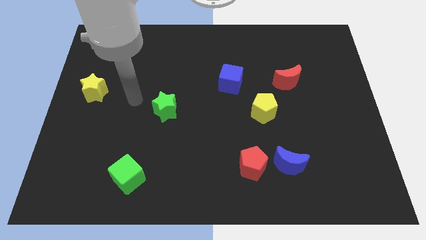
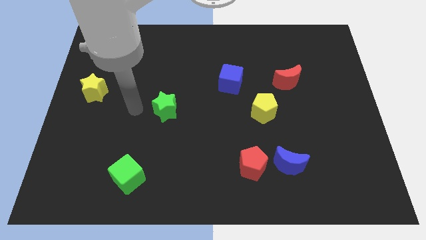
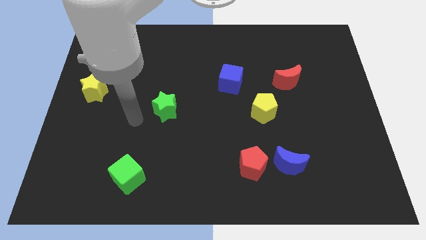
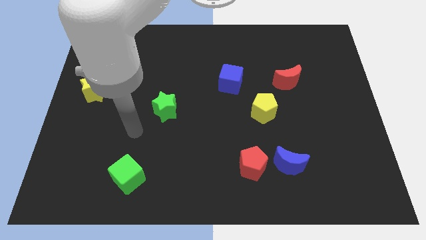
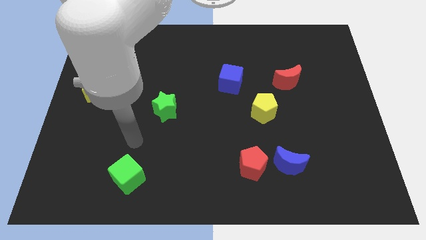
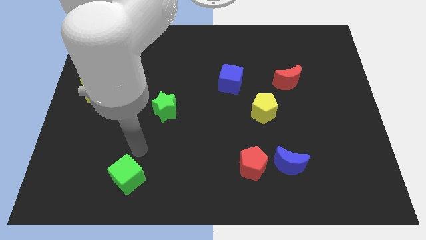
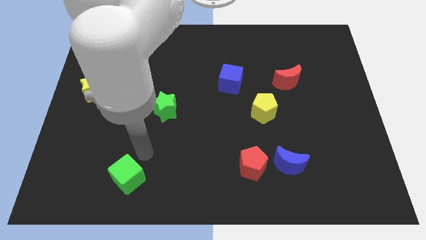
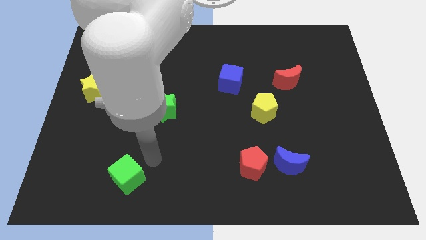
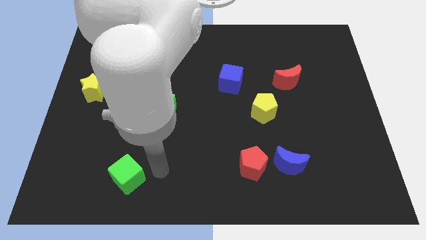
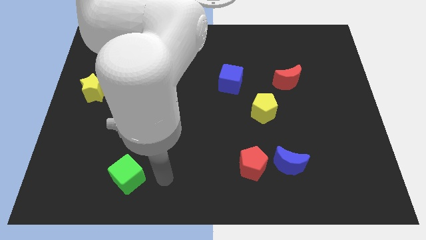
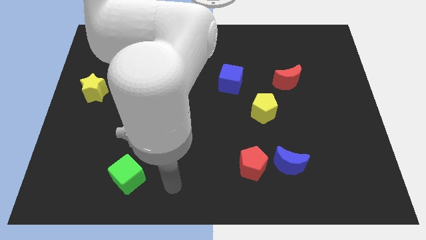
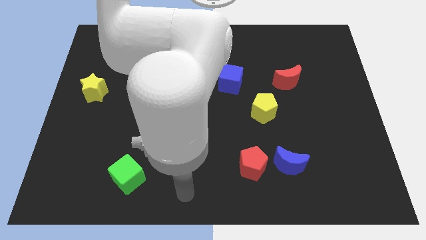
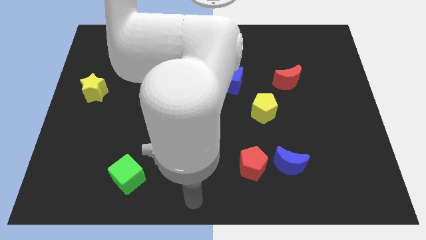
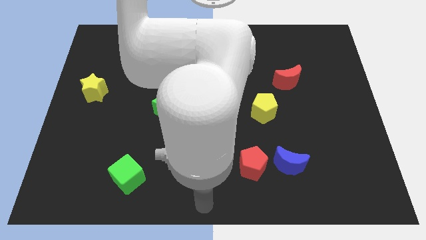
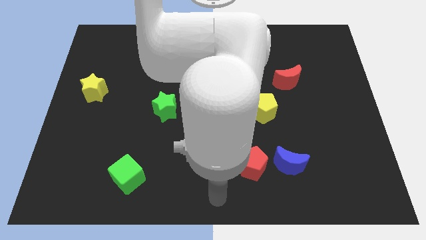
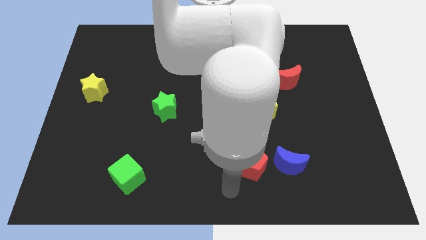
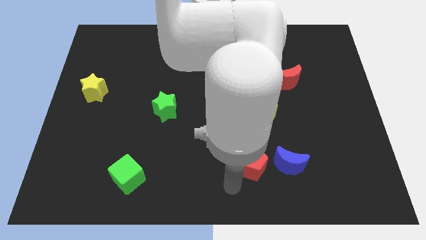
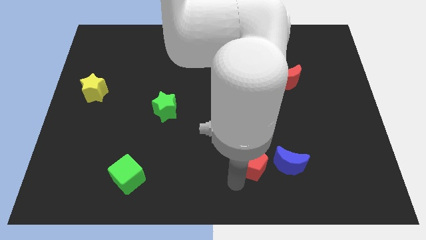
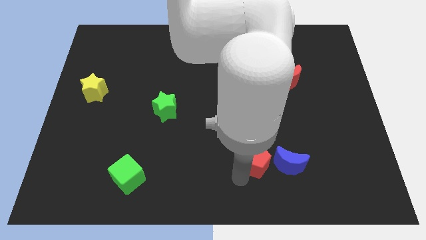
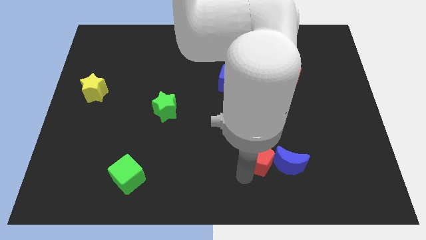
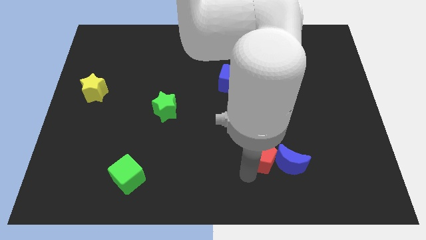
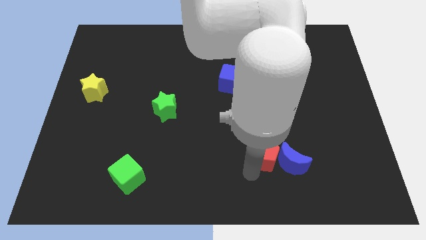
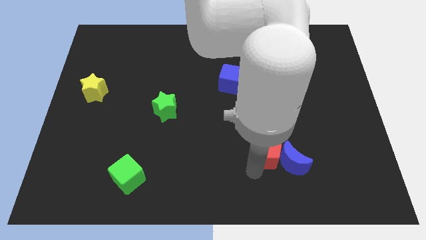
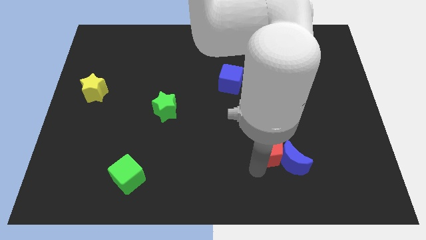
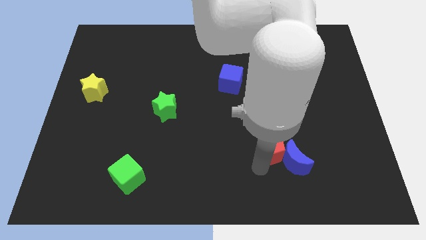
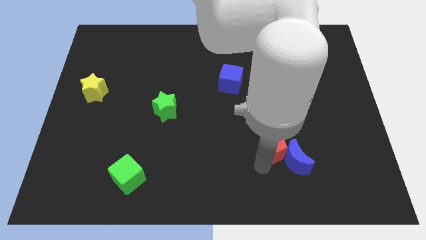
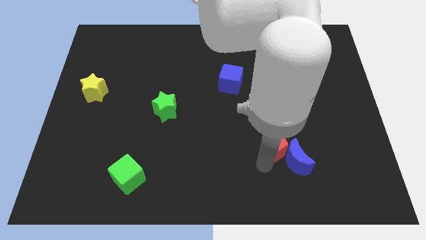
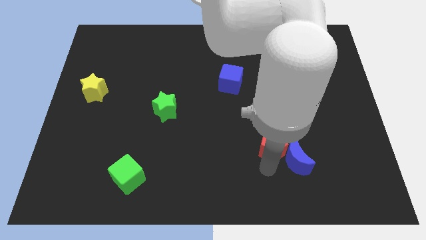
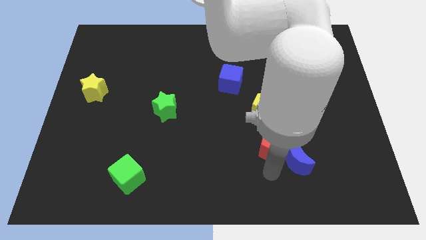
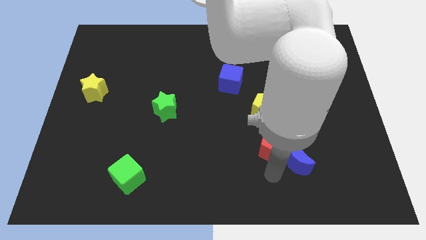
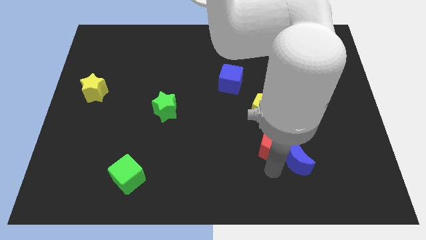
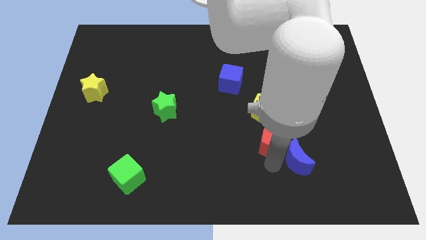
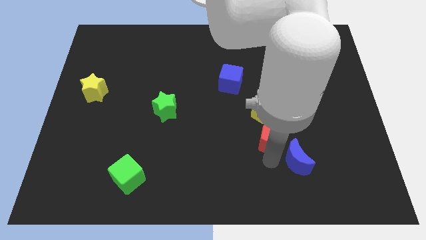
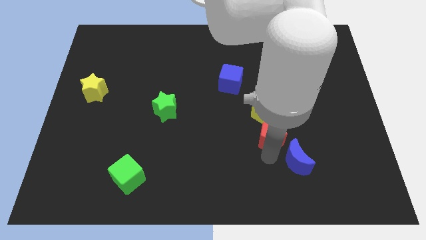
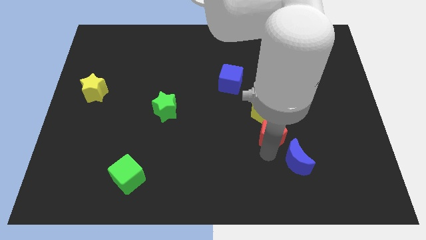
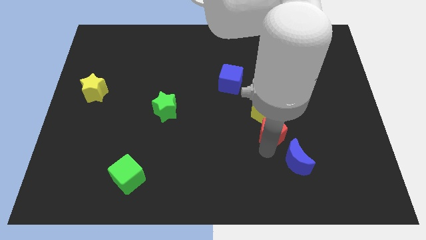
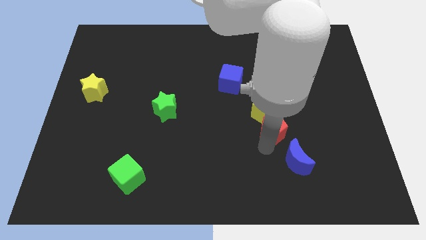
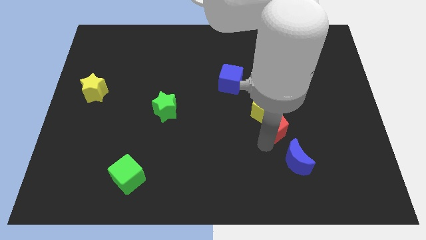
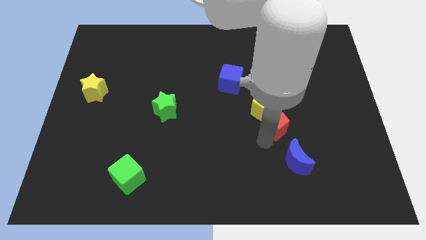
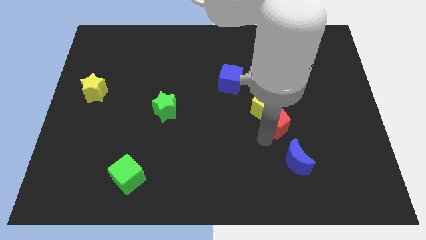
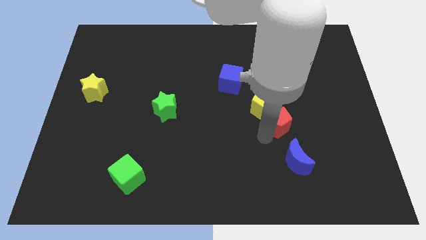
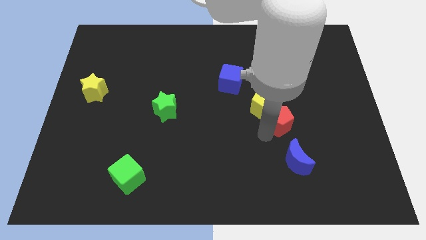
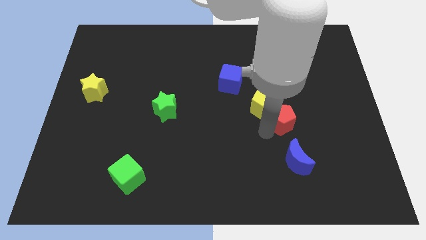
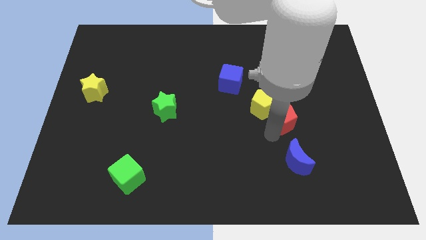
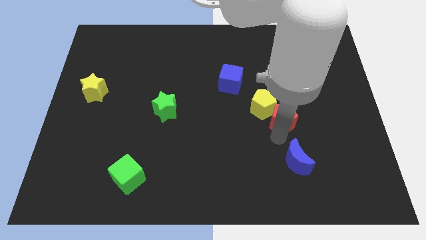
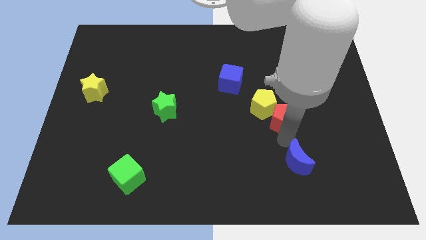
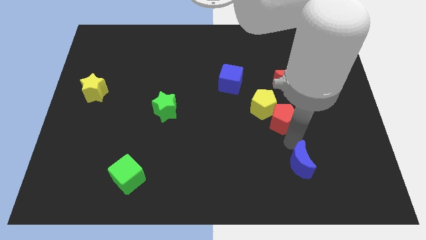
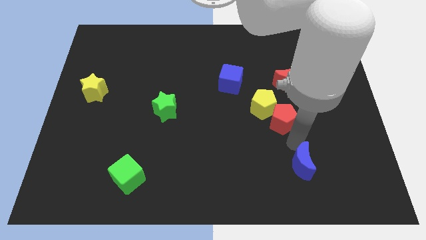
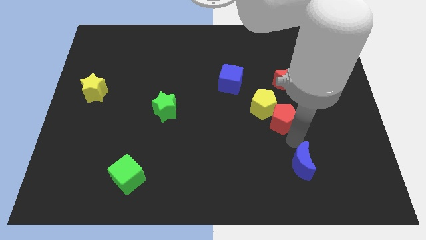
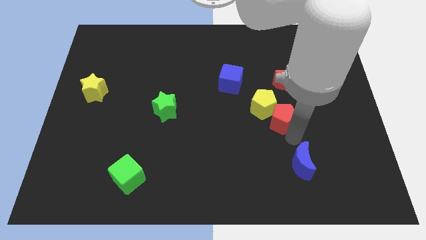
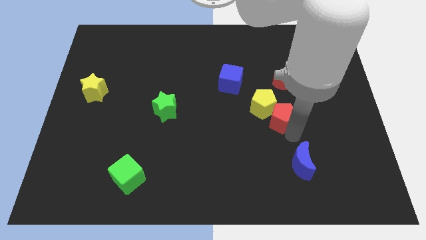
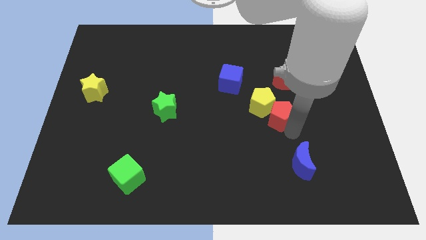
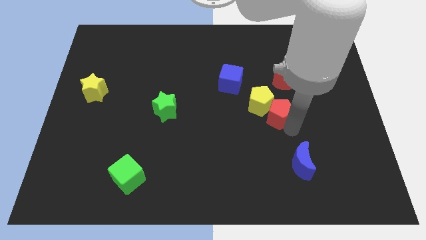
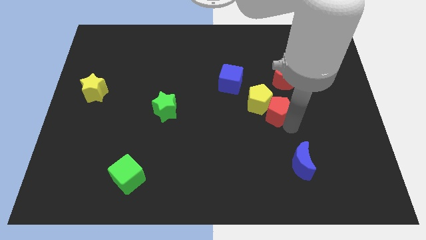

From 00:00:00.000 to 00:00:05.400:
put the red pentagon diagonally down and to the left of the red moon

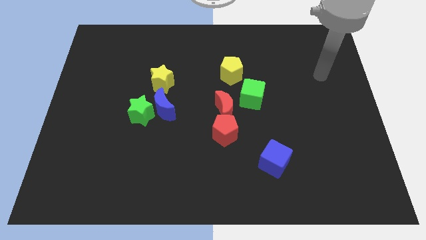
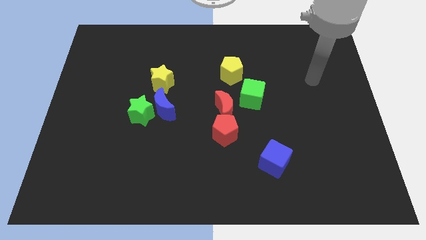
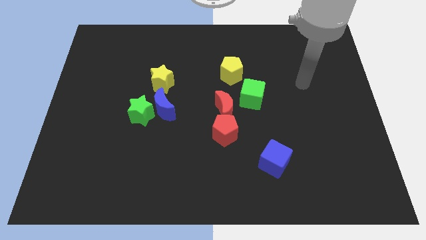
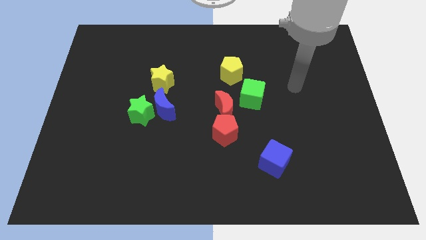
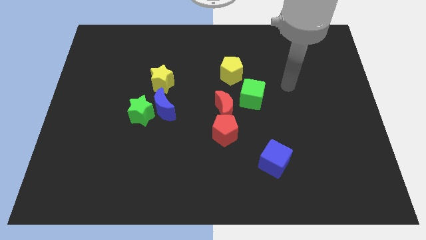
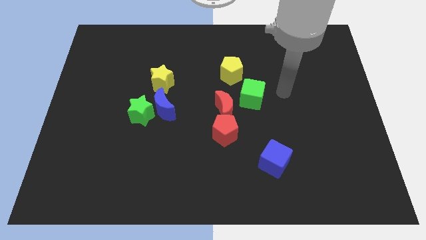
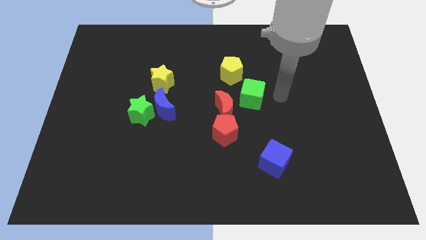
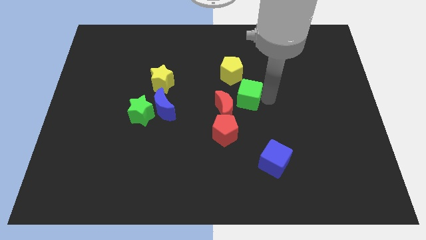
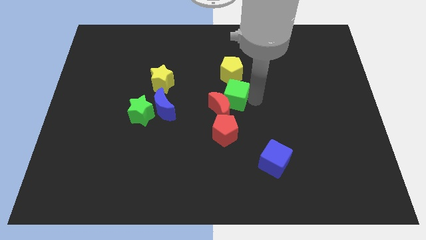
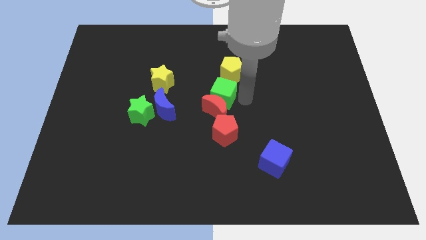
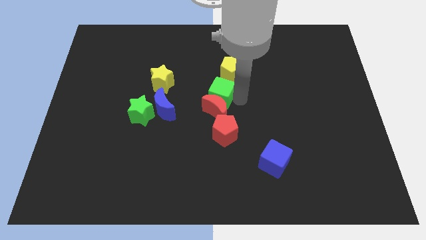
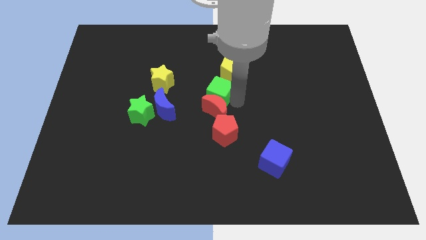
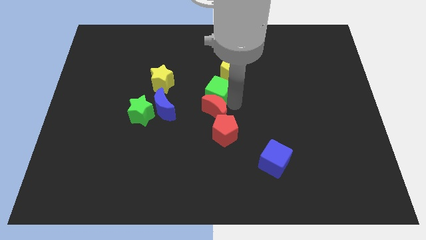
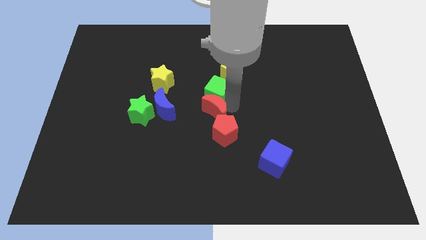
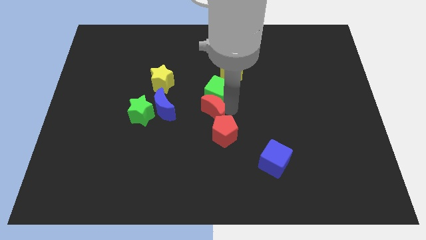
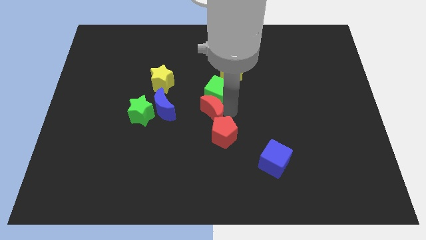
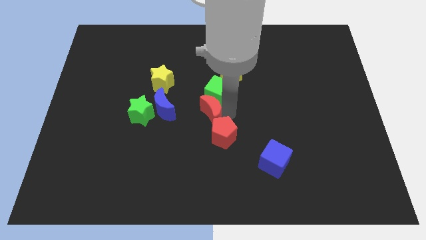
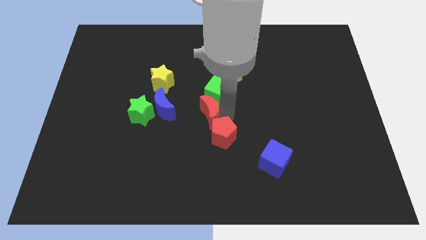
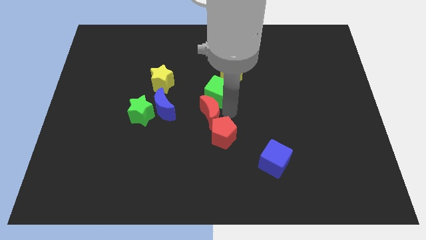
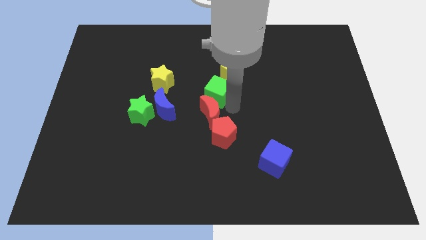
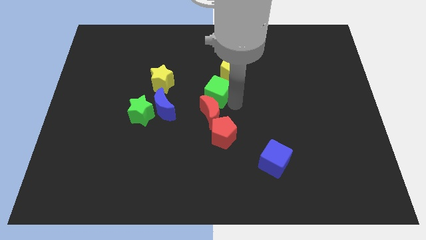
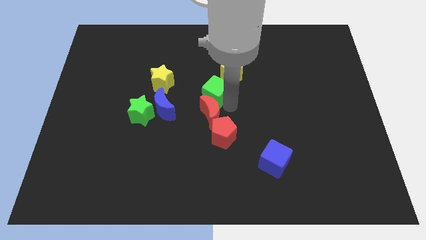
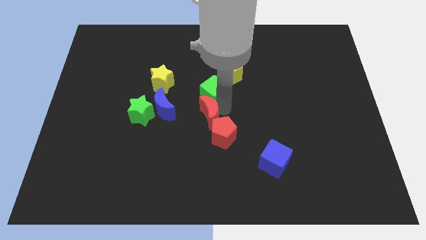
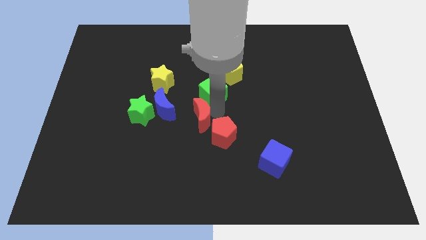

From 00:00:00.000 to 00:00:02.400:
slide the red moon diagonally down and to the right of the blue moon
